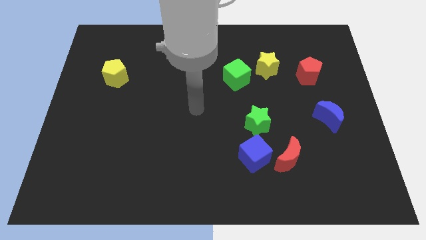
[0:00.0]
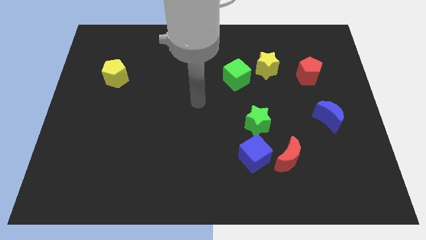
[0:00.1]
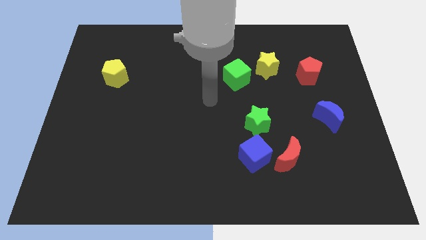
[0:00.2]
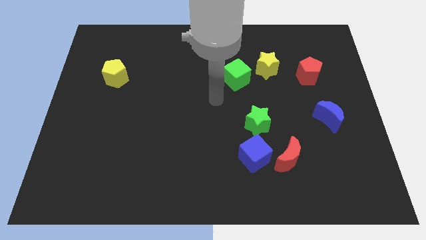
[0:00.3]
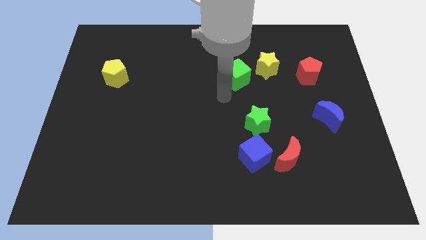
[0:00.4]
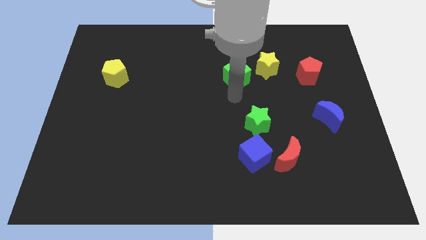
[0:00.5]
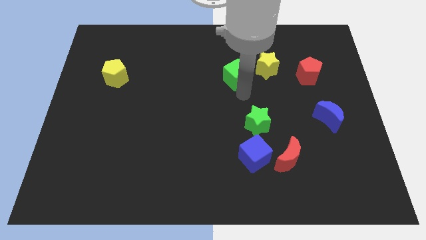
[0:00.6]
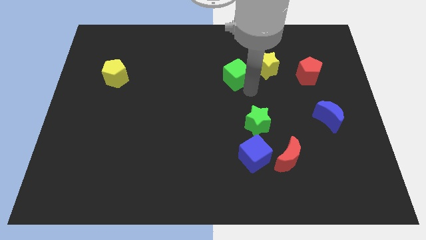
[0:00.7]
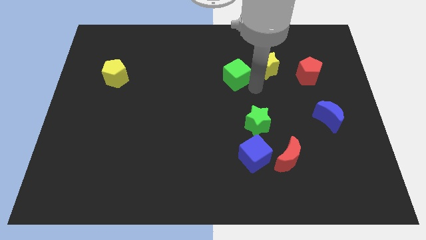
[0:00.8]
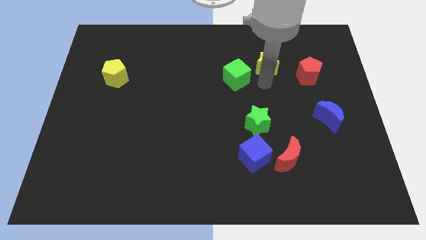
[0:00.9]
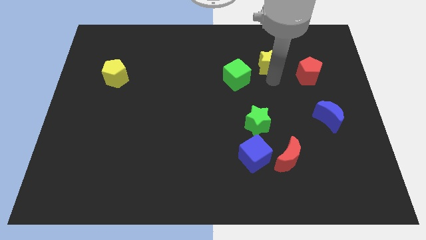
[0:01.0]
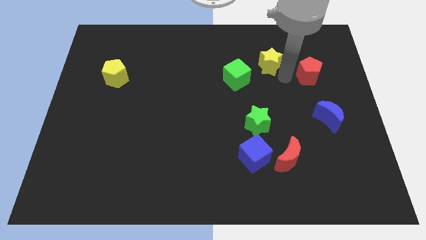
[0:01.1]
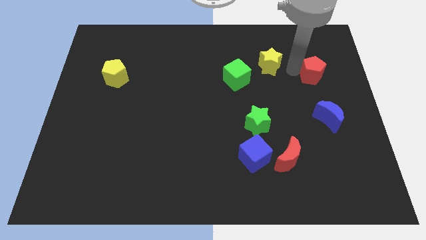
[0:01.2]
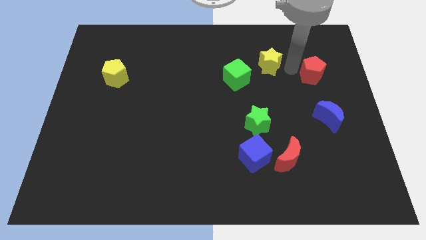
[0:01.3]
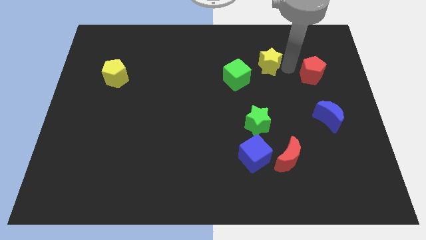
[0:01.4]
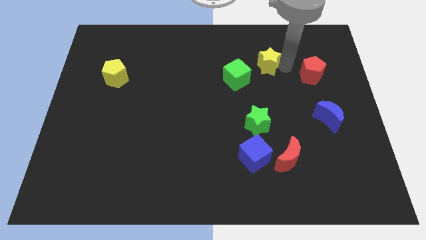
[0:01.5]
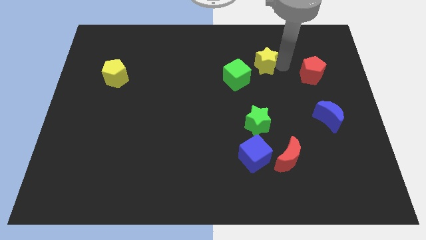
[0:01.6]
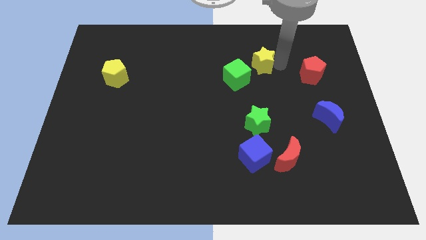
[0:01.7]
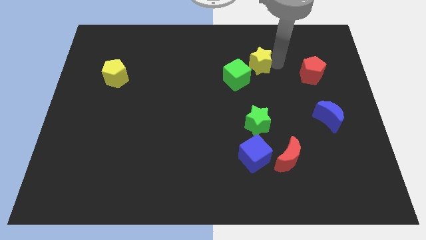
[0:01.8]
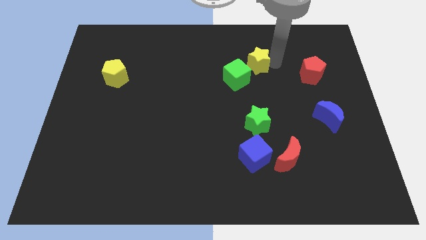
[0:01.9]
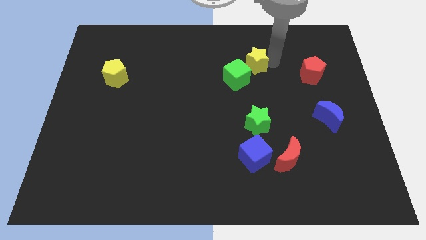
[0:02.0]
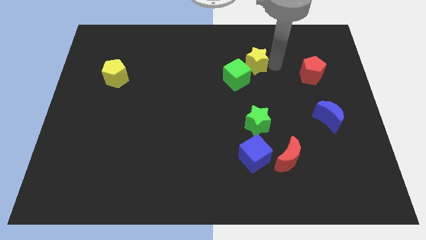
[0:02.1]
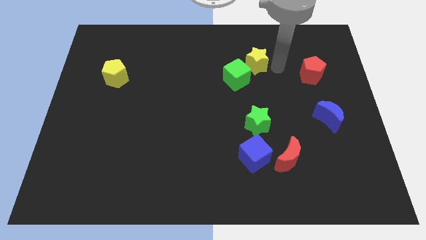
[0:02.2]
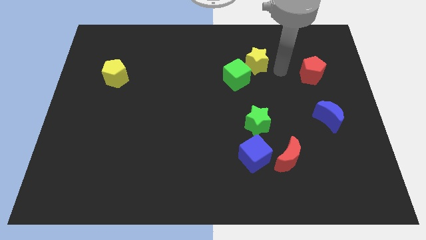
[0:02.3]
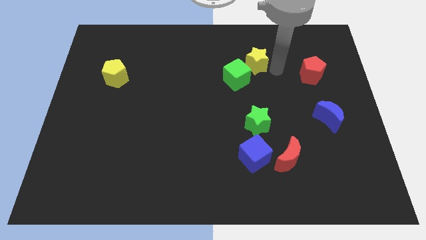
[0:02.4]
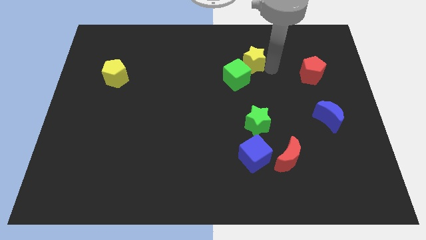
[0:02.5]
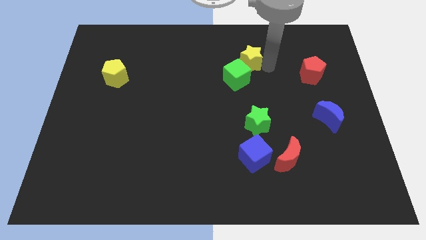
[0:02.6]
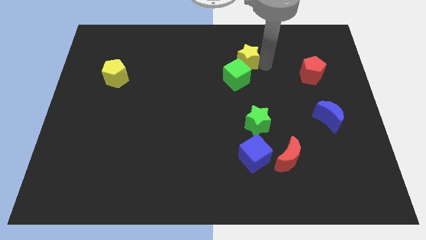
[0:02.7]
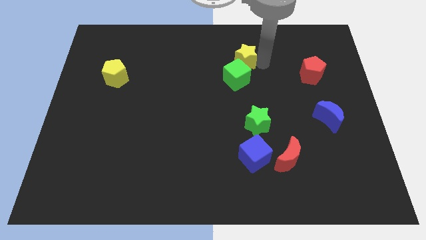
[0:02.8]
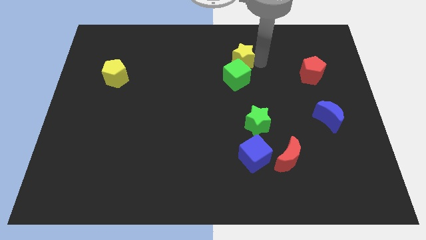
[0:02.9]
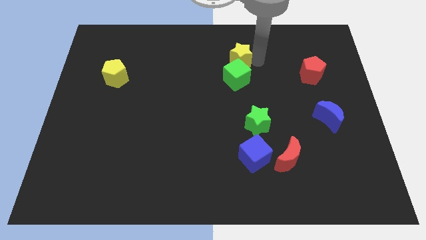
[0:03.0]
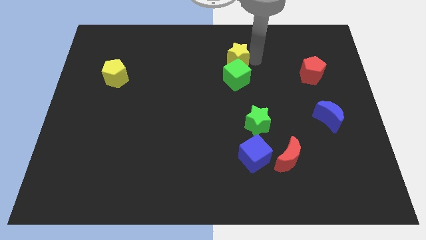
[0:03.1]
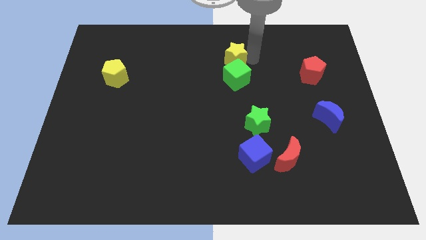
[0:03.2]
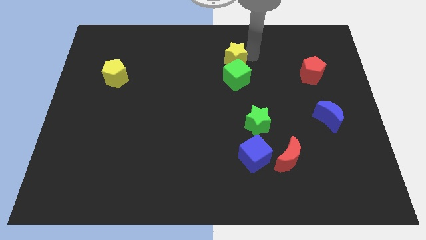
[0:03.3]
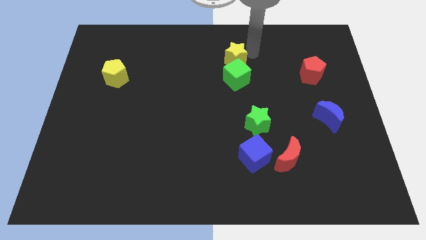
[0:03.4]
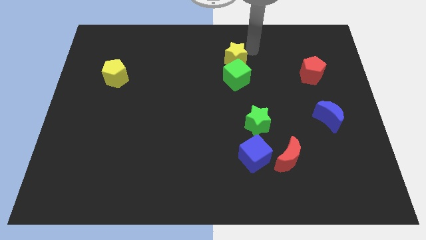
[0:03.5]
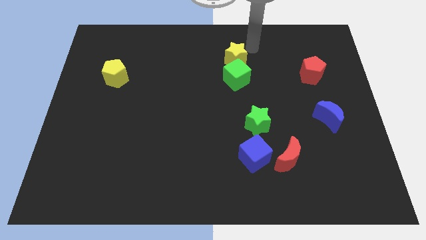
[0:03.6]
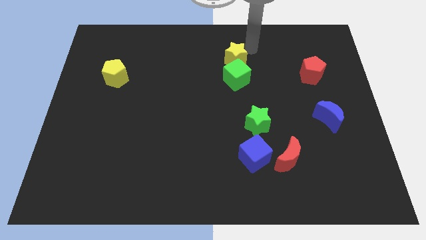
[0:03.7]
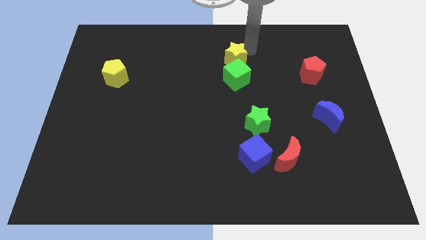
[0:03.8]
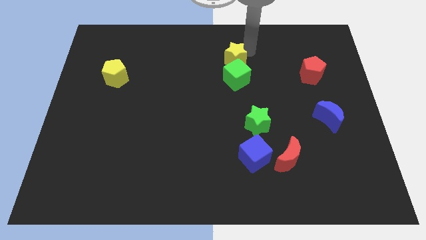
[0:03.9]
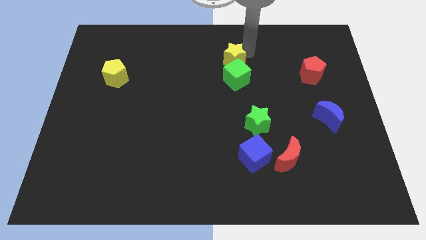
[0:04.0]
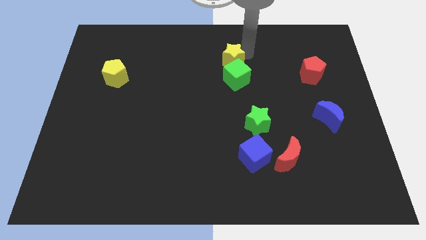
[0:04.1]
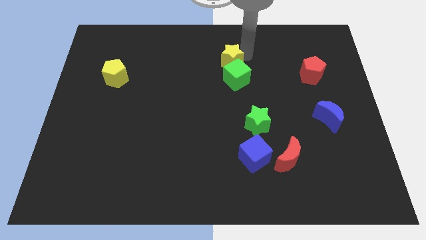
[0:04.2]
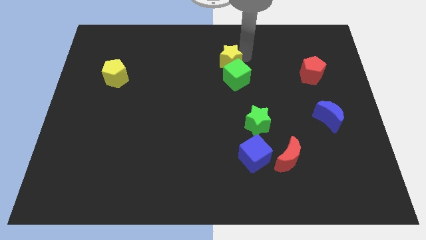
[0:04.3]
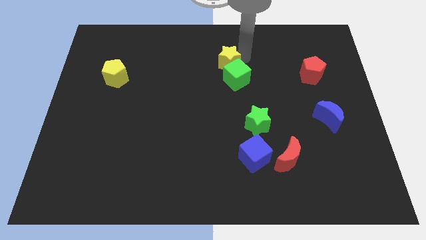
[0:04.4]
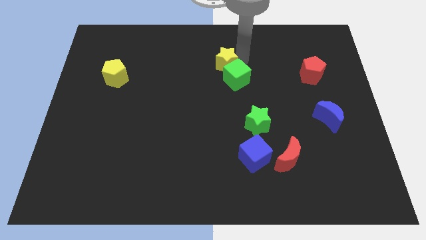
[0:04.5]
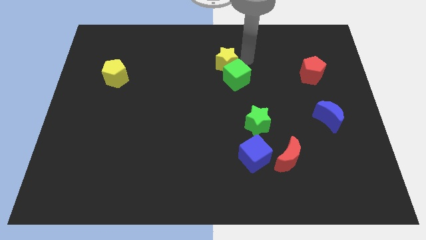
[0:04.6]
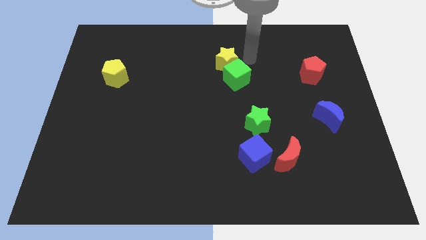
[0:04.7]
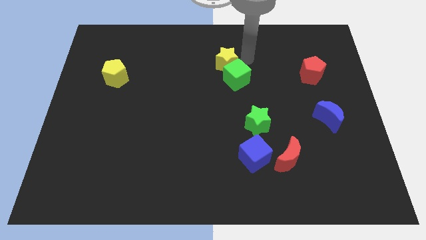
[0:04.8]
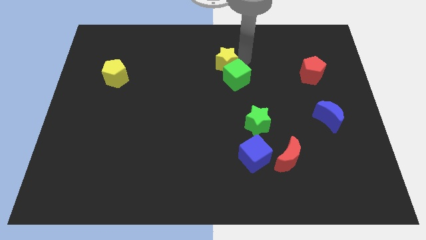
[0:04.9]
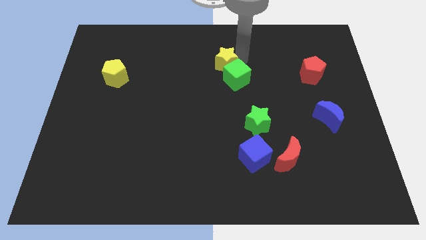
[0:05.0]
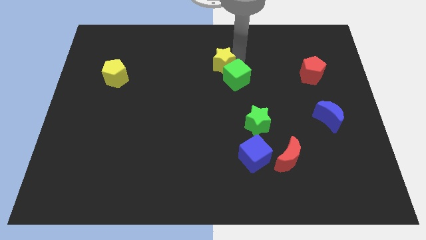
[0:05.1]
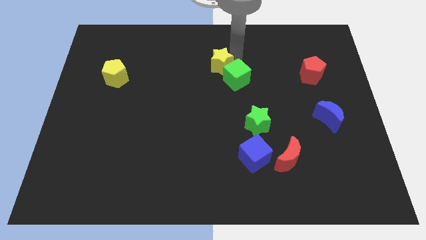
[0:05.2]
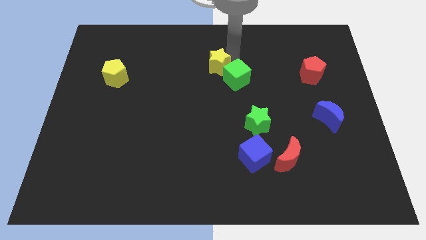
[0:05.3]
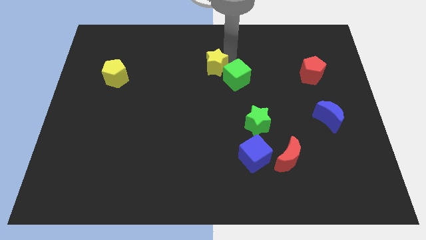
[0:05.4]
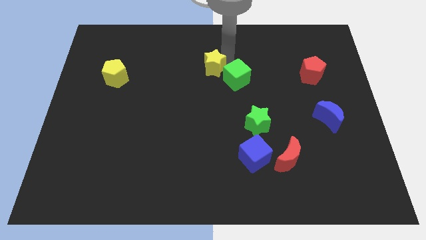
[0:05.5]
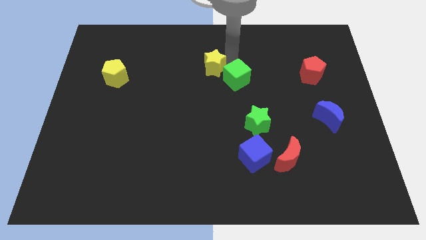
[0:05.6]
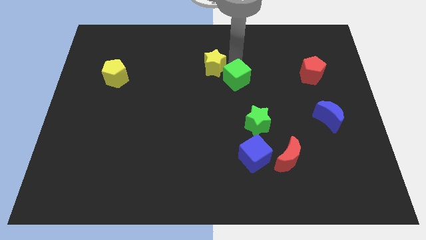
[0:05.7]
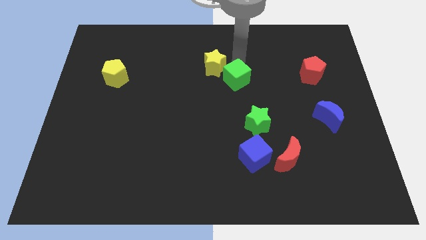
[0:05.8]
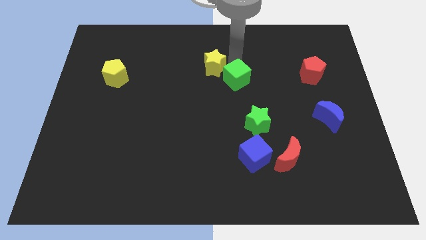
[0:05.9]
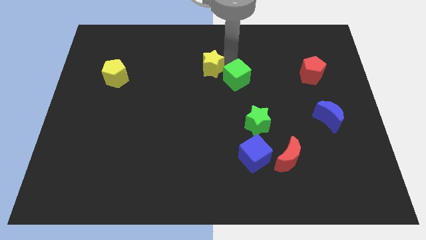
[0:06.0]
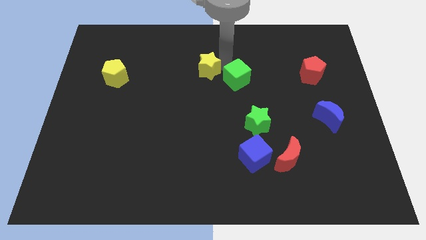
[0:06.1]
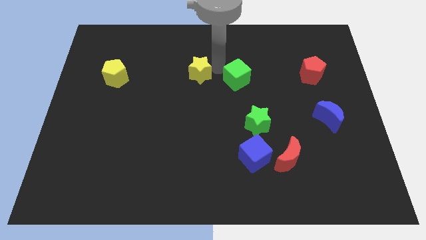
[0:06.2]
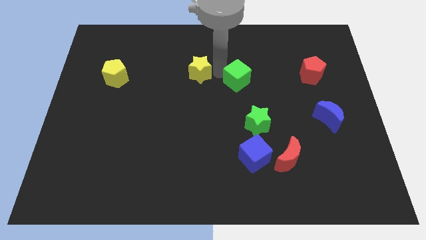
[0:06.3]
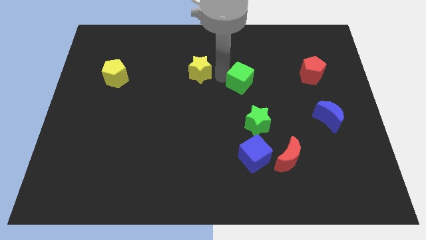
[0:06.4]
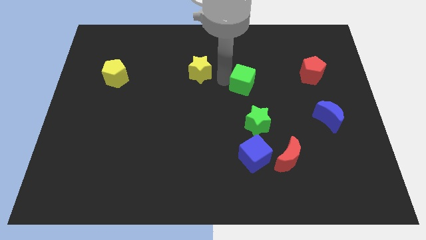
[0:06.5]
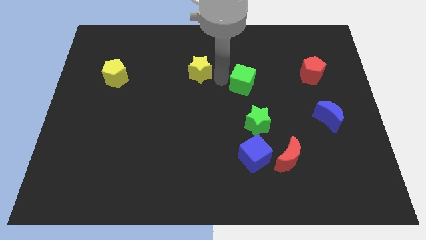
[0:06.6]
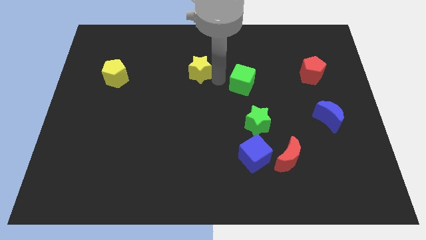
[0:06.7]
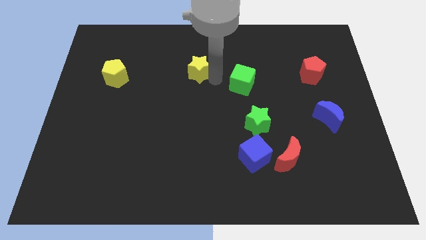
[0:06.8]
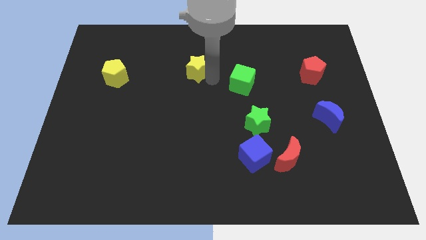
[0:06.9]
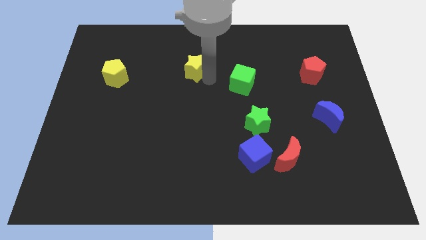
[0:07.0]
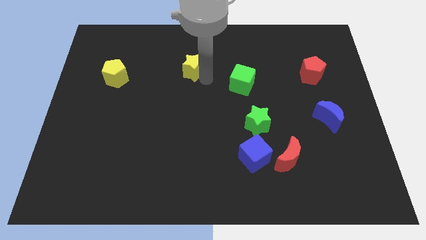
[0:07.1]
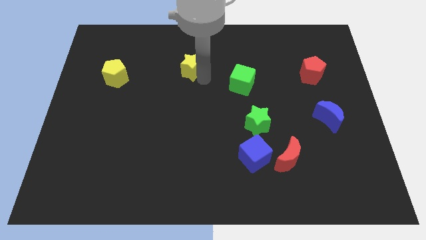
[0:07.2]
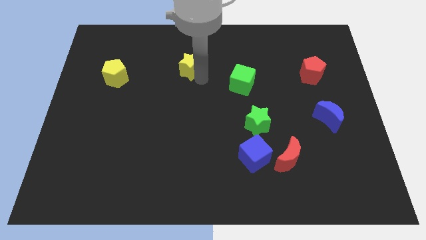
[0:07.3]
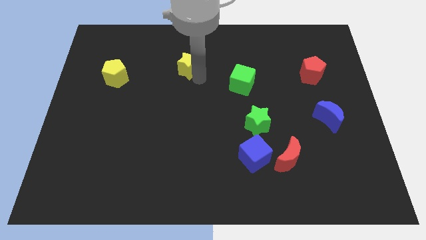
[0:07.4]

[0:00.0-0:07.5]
move the yellow star to the left

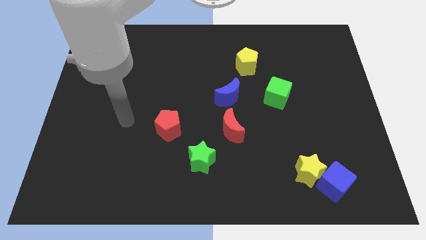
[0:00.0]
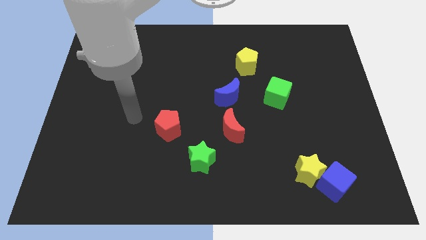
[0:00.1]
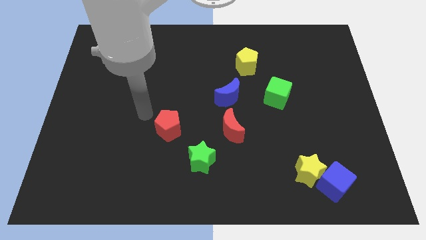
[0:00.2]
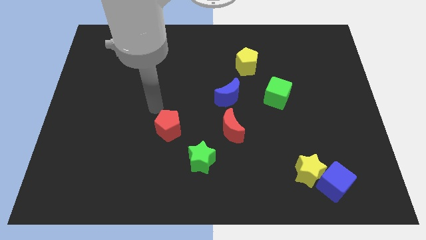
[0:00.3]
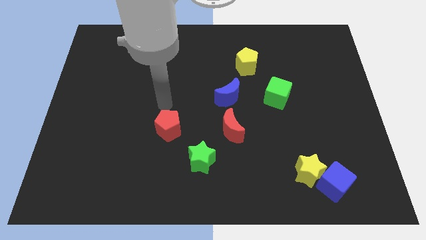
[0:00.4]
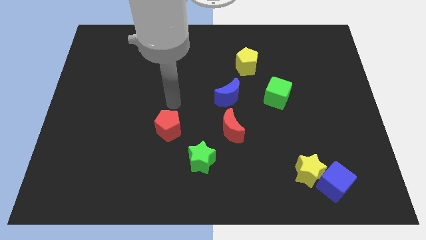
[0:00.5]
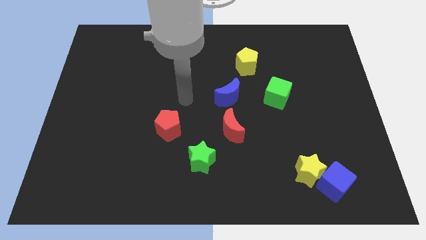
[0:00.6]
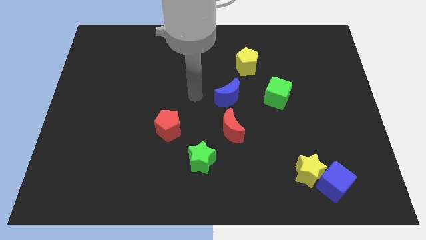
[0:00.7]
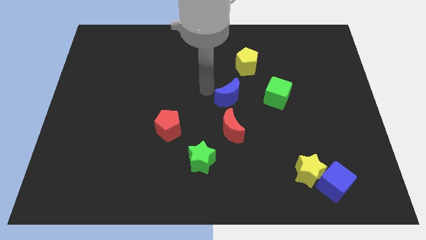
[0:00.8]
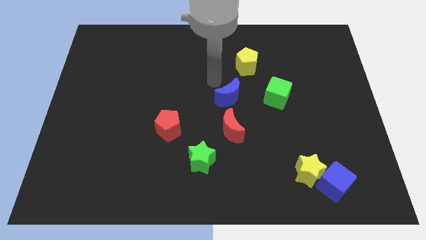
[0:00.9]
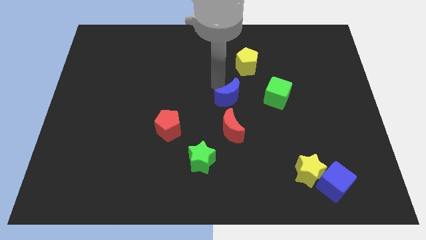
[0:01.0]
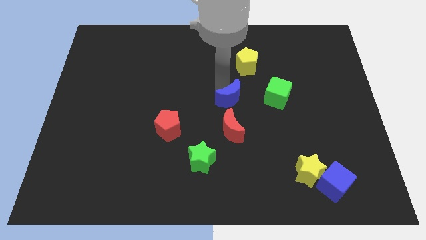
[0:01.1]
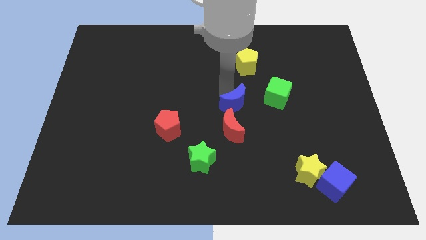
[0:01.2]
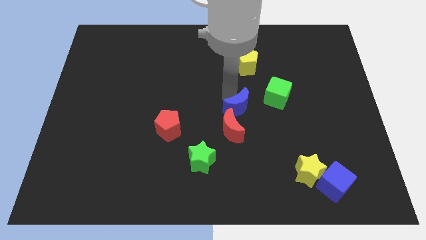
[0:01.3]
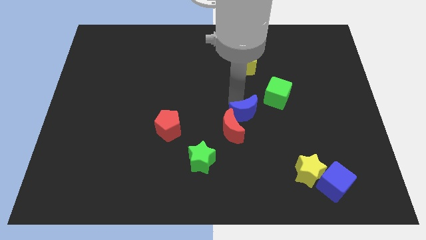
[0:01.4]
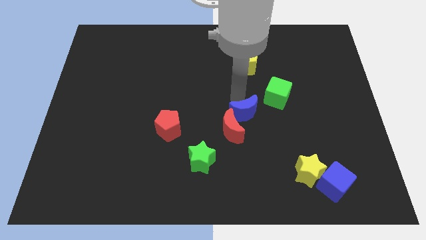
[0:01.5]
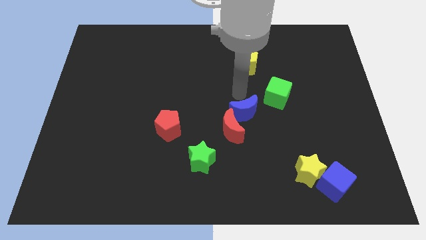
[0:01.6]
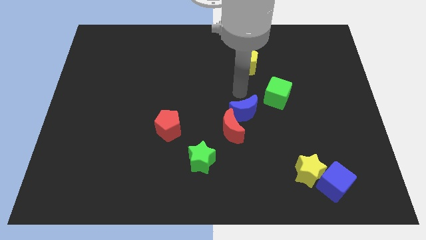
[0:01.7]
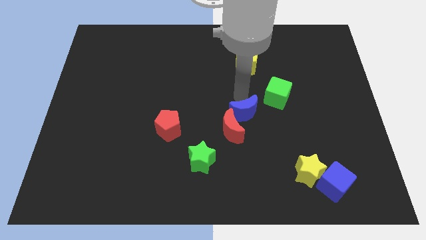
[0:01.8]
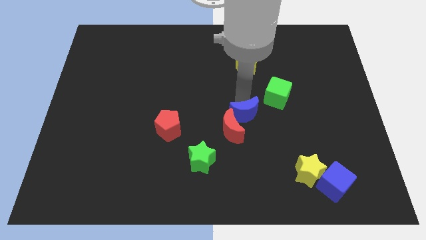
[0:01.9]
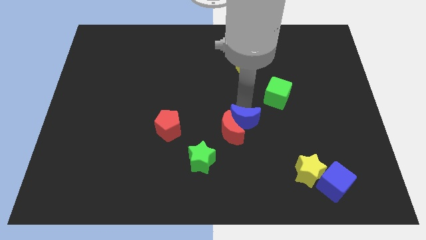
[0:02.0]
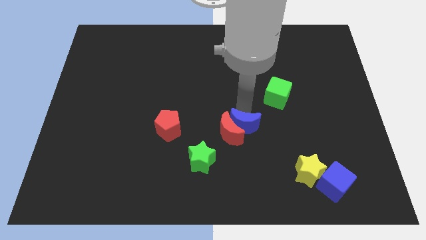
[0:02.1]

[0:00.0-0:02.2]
slide the blue moon a little down
